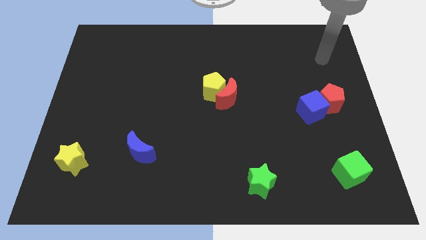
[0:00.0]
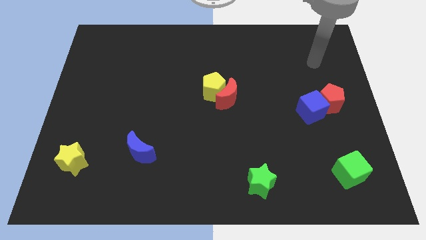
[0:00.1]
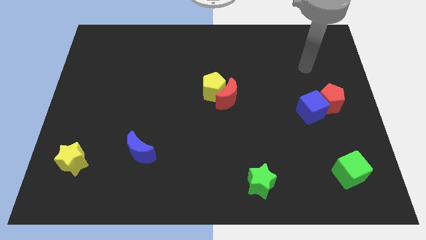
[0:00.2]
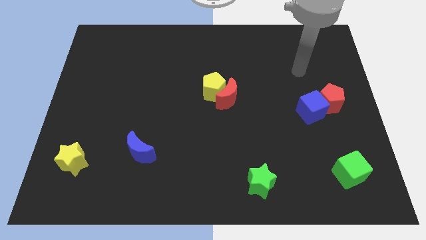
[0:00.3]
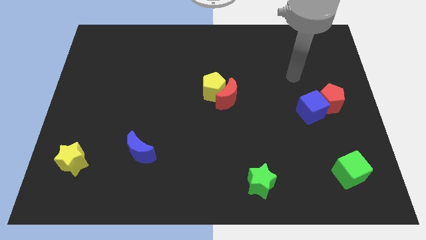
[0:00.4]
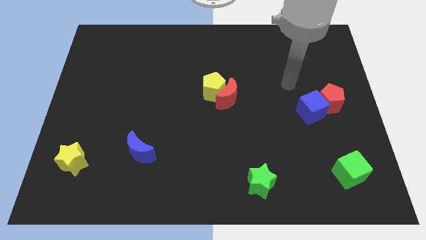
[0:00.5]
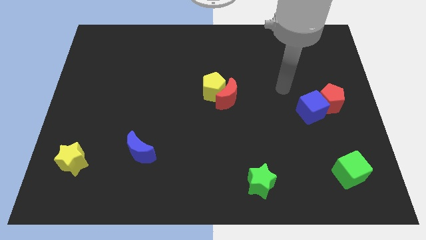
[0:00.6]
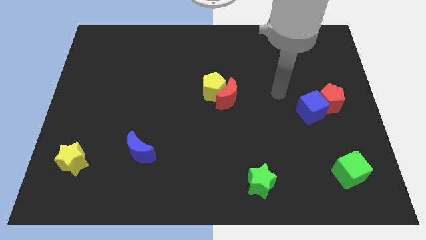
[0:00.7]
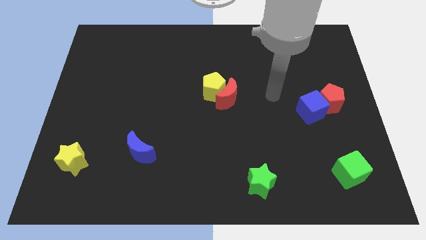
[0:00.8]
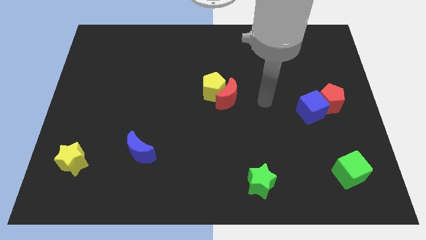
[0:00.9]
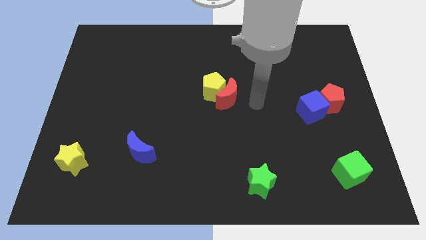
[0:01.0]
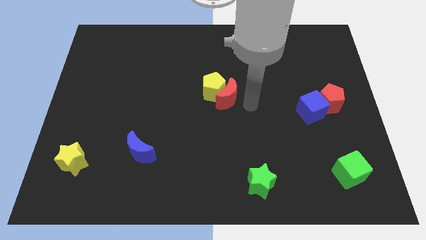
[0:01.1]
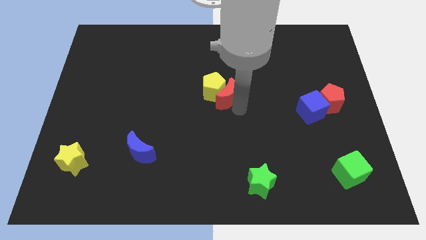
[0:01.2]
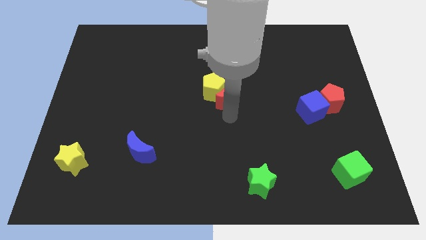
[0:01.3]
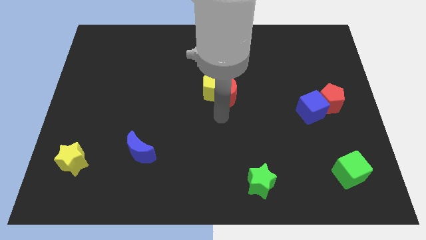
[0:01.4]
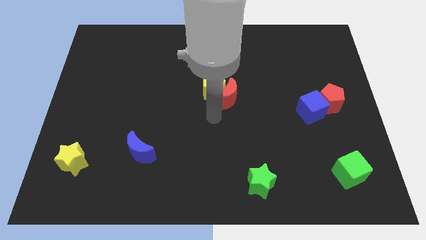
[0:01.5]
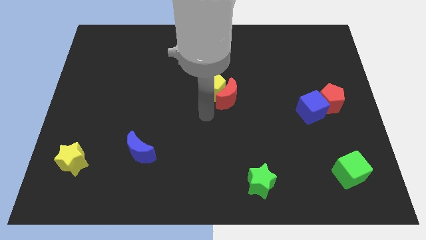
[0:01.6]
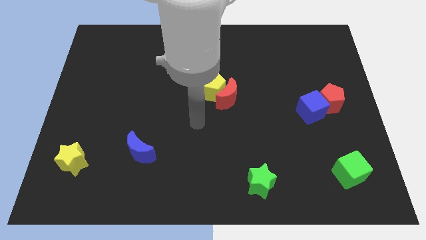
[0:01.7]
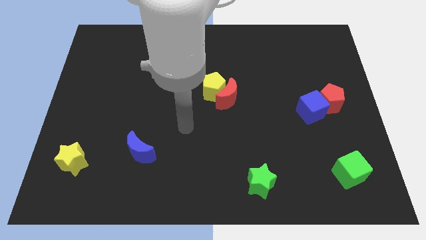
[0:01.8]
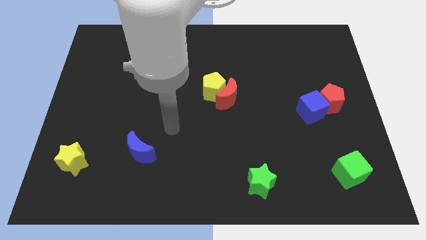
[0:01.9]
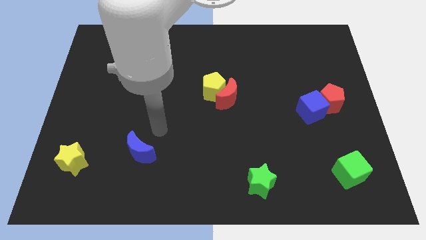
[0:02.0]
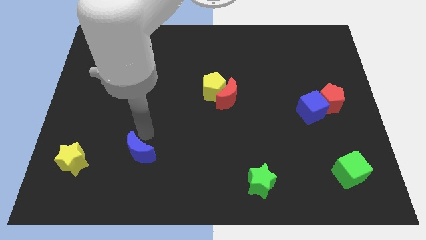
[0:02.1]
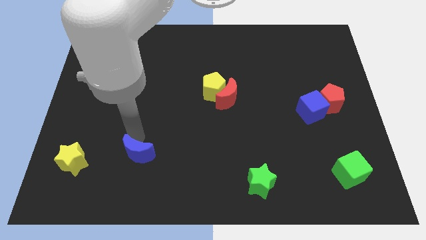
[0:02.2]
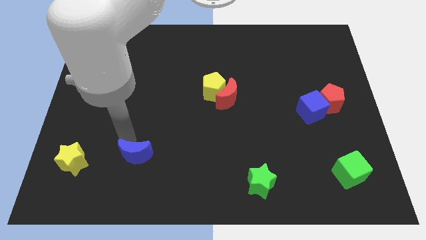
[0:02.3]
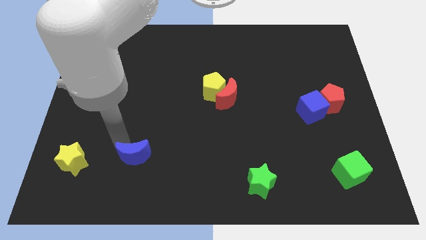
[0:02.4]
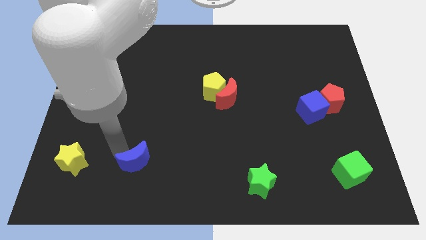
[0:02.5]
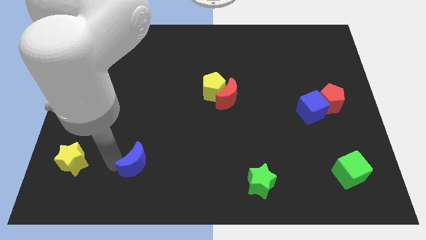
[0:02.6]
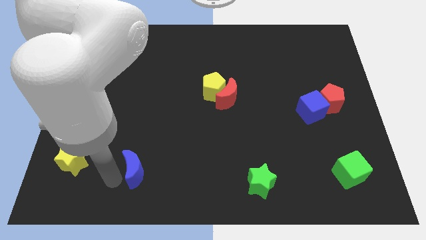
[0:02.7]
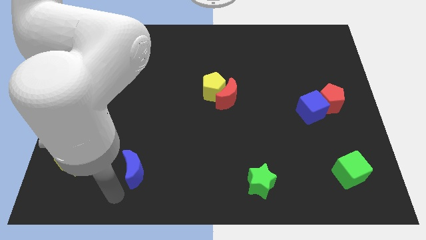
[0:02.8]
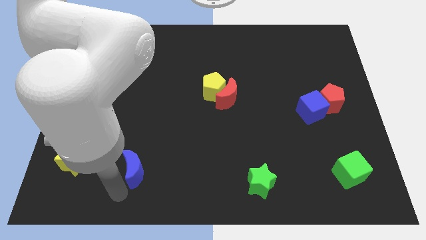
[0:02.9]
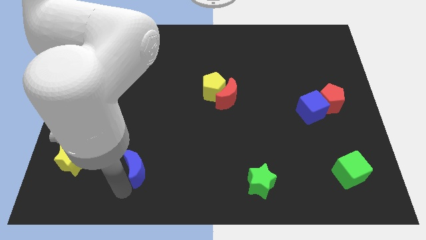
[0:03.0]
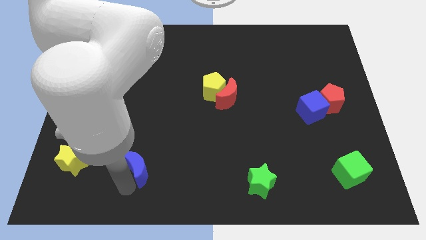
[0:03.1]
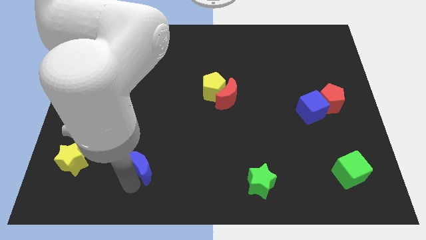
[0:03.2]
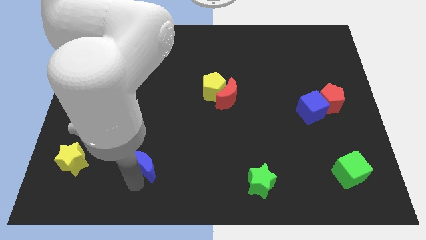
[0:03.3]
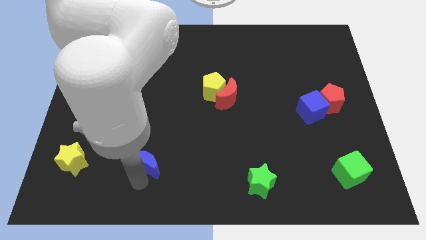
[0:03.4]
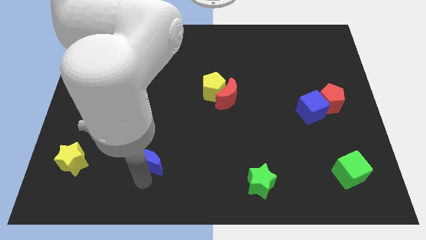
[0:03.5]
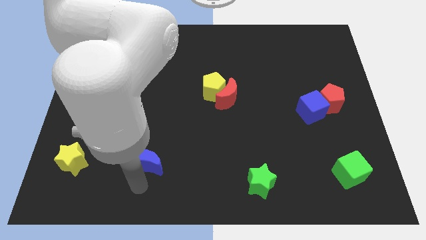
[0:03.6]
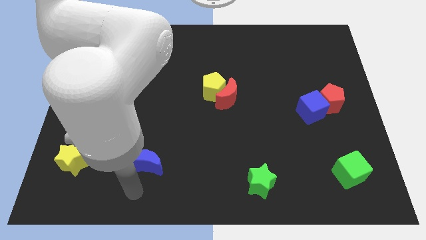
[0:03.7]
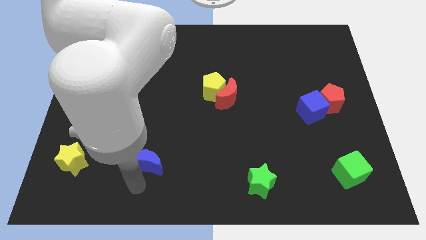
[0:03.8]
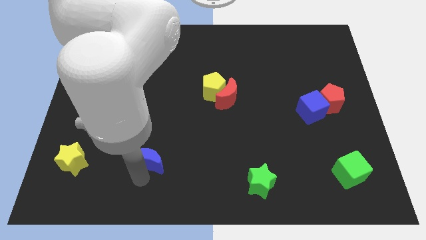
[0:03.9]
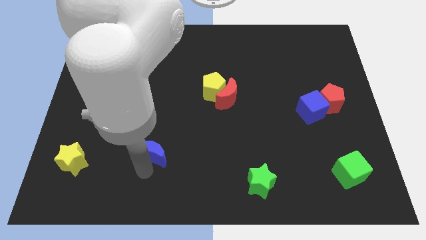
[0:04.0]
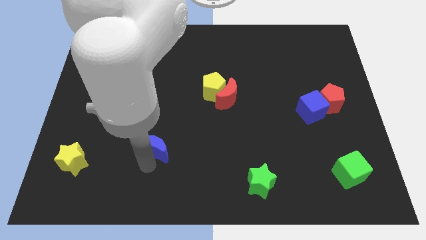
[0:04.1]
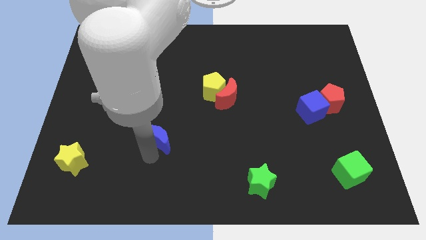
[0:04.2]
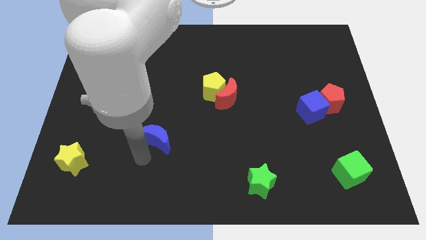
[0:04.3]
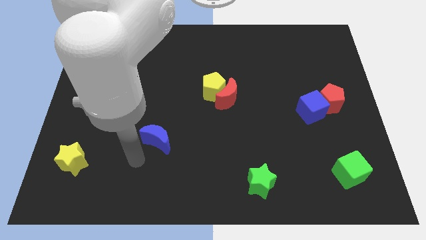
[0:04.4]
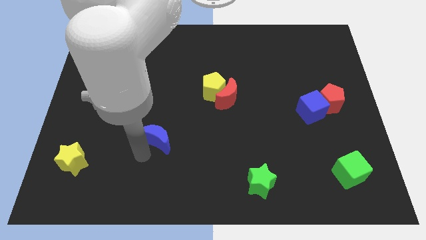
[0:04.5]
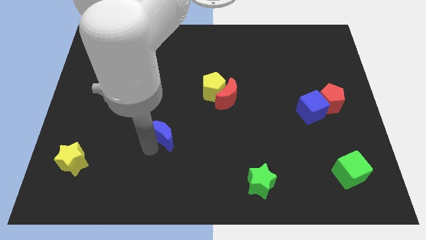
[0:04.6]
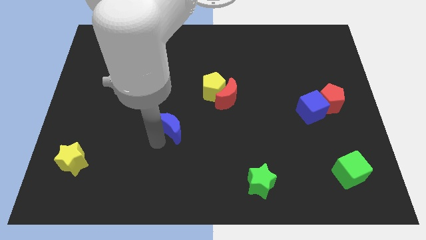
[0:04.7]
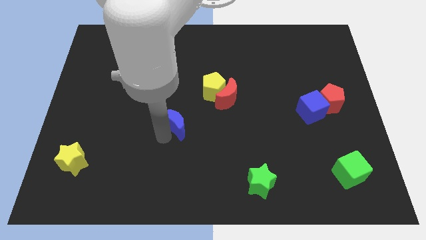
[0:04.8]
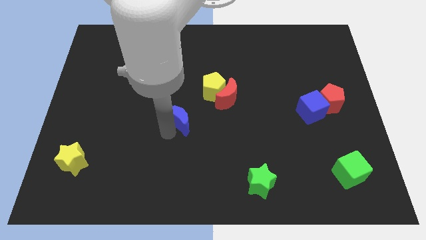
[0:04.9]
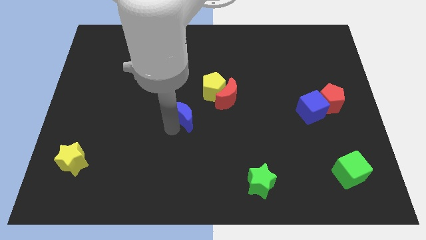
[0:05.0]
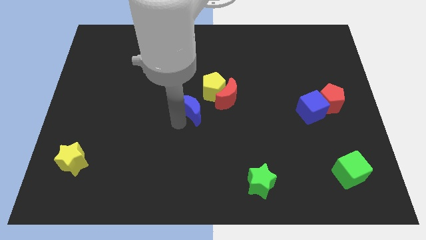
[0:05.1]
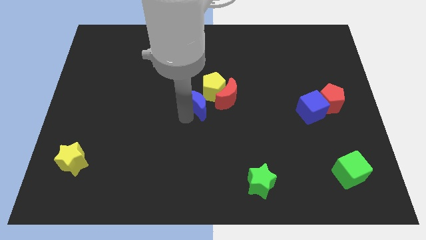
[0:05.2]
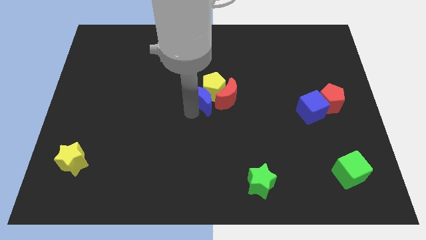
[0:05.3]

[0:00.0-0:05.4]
put the blue moon to the yellow pentagon

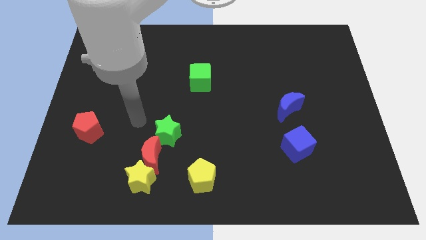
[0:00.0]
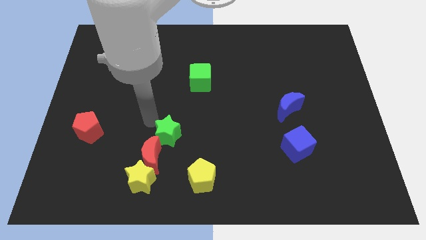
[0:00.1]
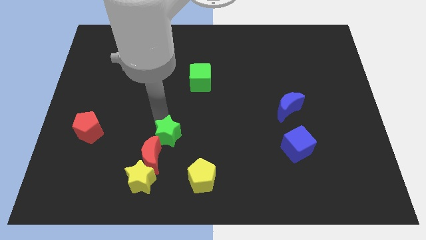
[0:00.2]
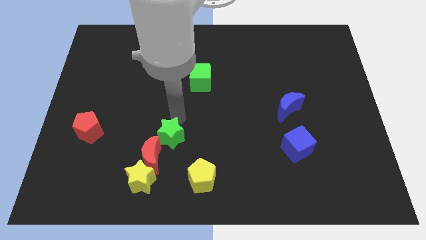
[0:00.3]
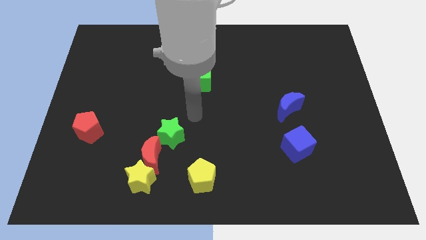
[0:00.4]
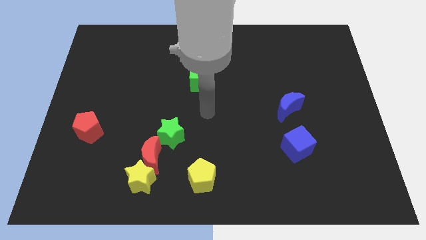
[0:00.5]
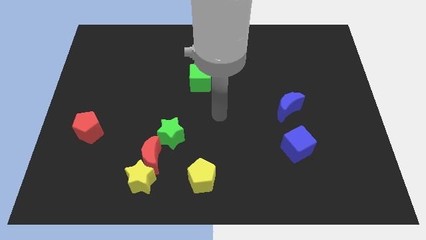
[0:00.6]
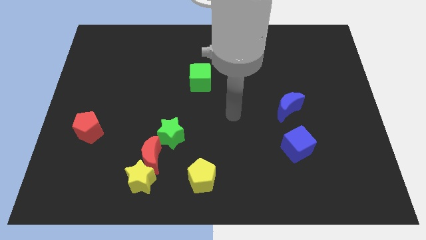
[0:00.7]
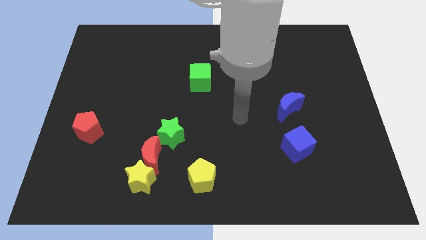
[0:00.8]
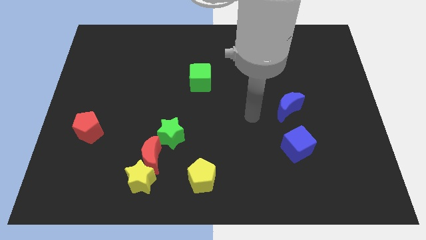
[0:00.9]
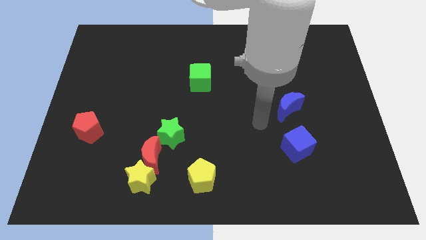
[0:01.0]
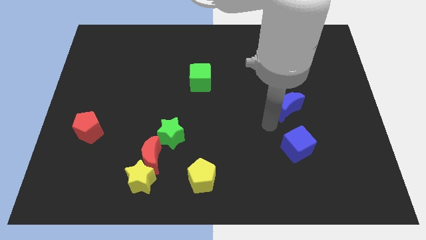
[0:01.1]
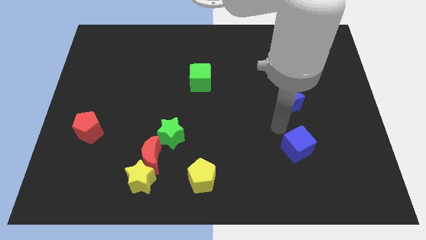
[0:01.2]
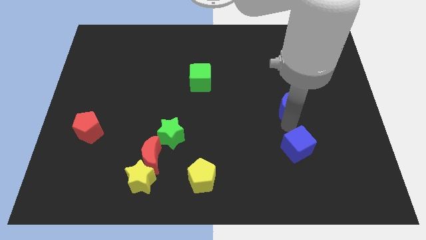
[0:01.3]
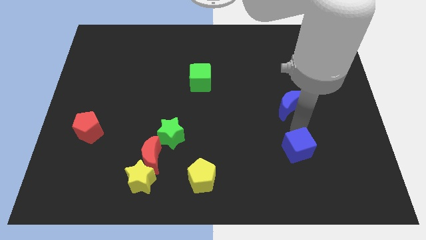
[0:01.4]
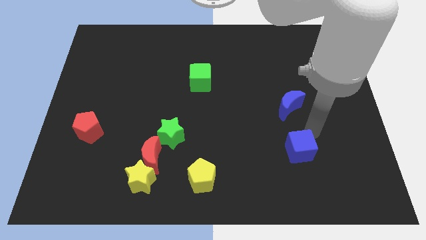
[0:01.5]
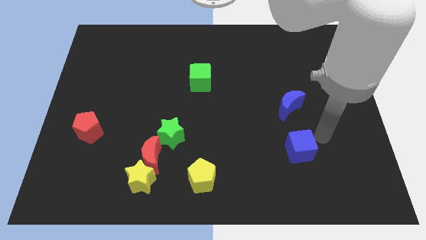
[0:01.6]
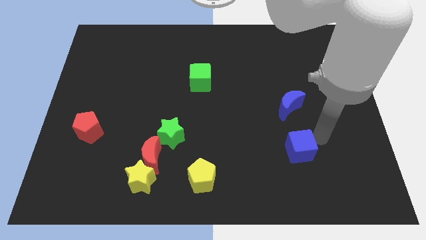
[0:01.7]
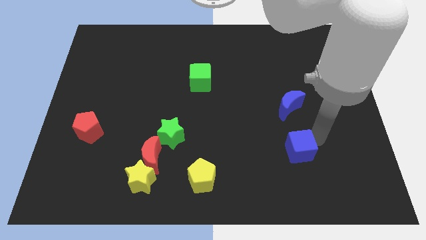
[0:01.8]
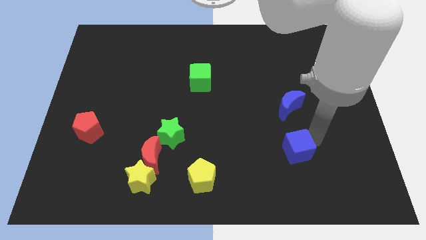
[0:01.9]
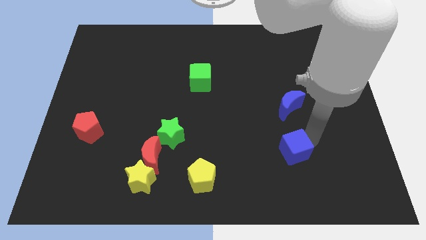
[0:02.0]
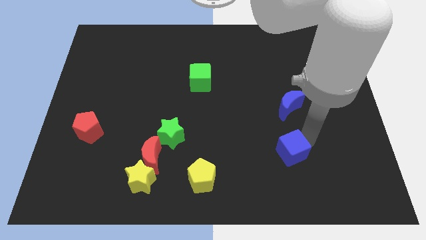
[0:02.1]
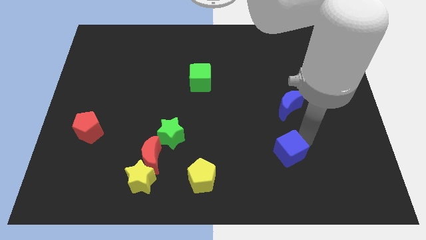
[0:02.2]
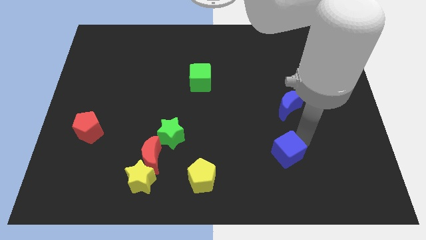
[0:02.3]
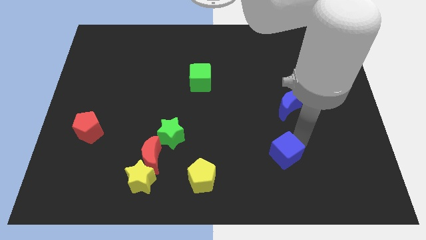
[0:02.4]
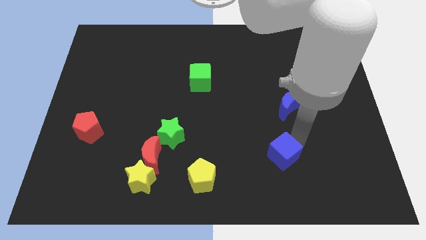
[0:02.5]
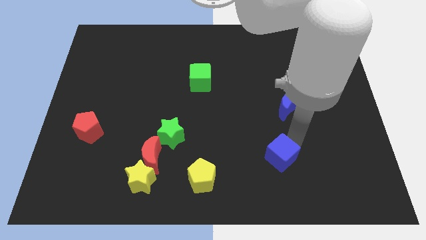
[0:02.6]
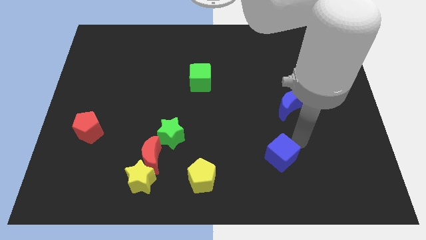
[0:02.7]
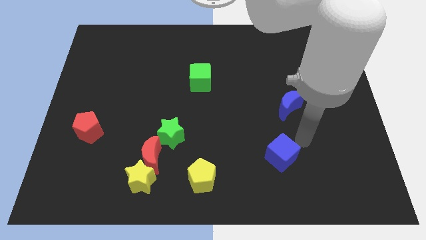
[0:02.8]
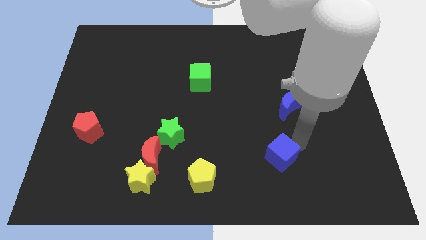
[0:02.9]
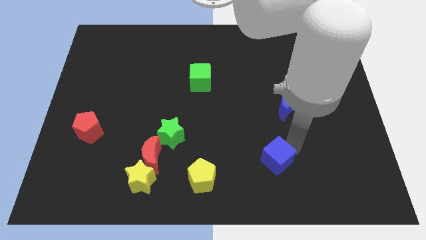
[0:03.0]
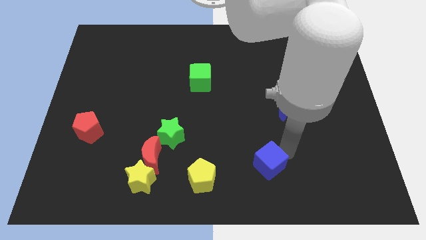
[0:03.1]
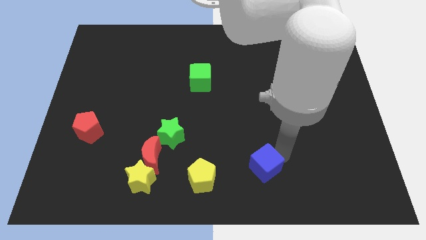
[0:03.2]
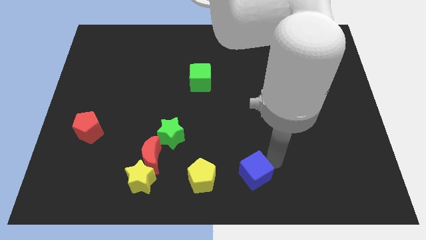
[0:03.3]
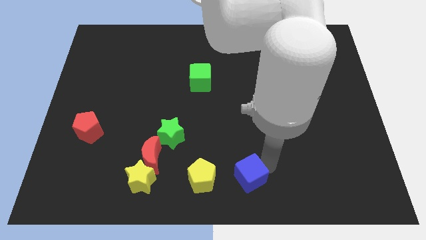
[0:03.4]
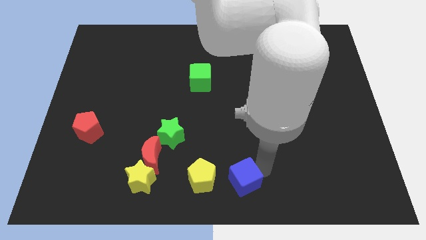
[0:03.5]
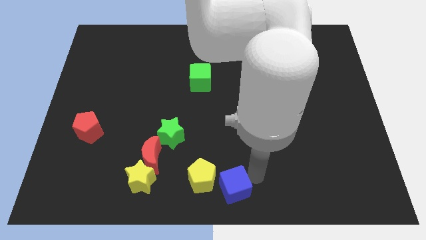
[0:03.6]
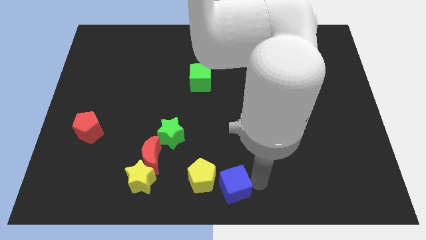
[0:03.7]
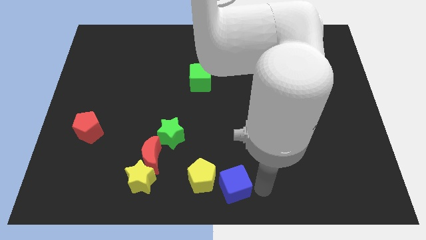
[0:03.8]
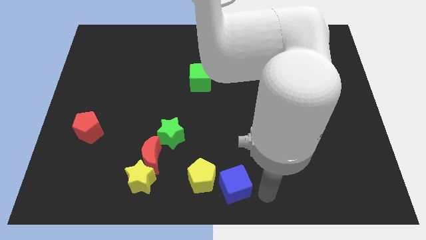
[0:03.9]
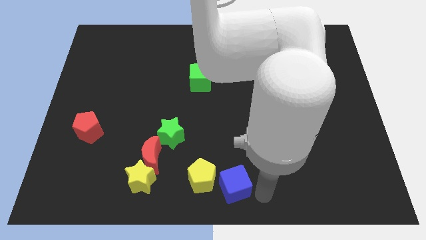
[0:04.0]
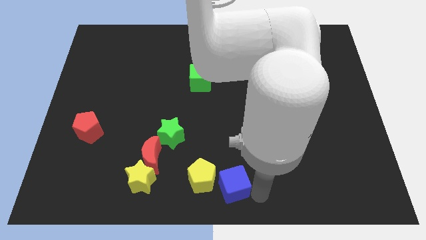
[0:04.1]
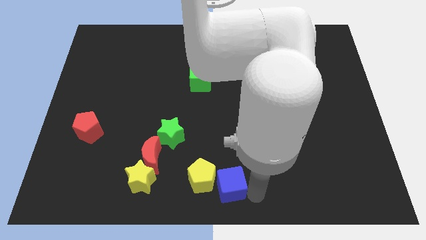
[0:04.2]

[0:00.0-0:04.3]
put the blue cube towards the yellow pentagon
